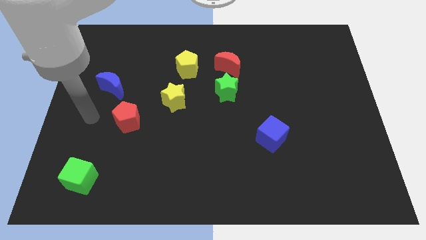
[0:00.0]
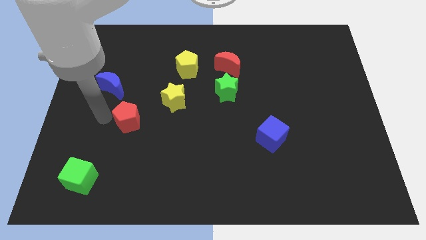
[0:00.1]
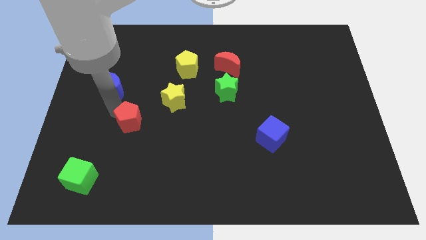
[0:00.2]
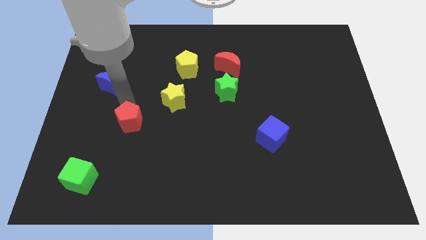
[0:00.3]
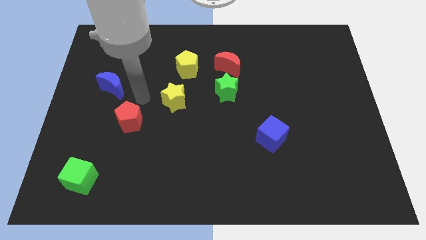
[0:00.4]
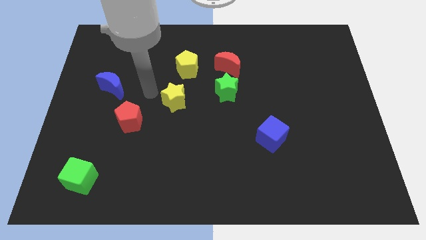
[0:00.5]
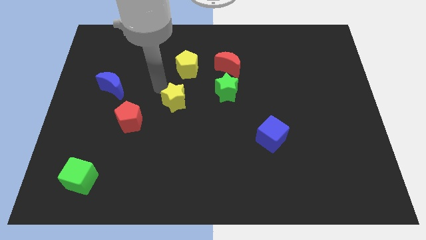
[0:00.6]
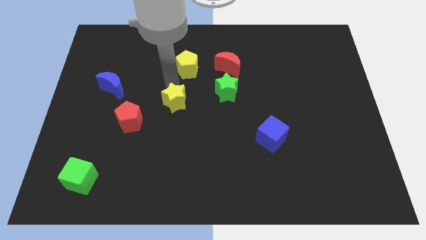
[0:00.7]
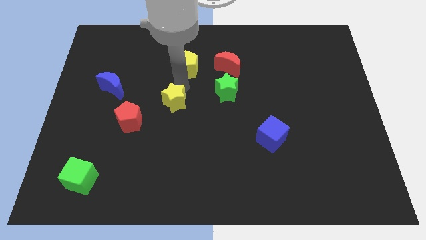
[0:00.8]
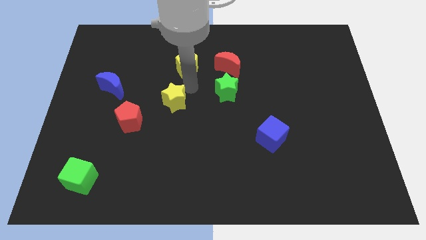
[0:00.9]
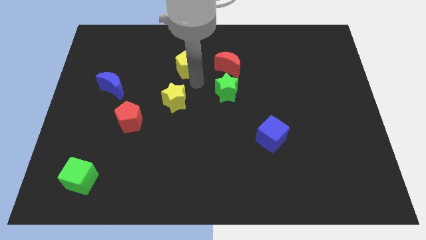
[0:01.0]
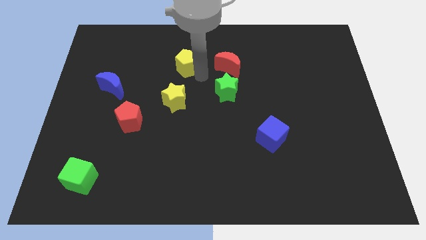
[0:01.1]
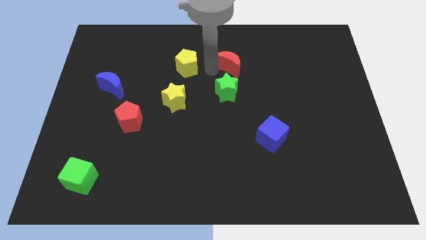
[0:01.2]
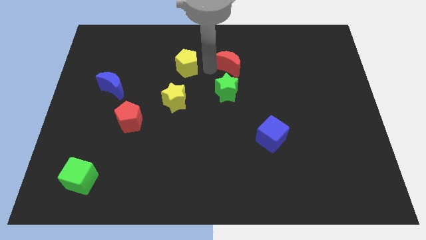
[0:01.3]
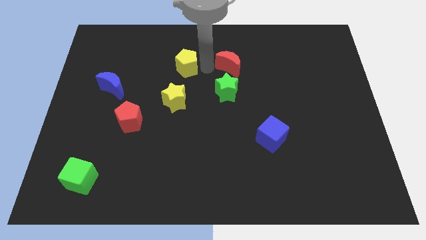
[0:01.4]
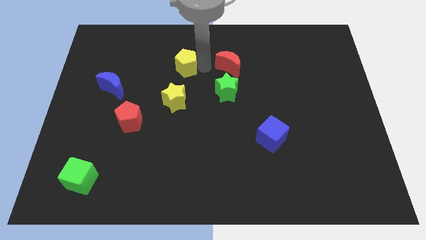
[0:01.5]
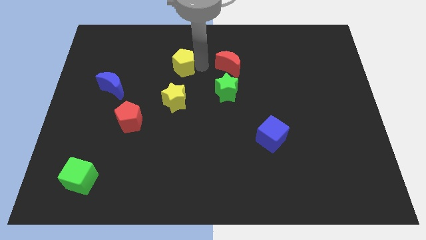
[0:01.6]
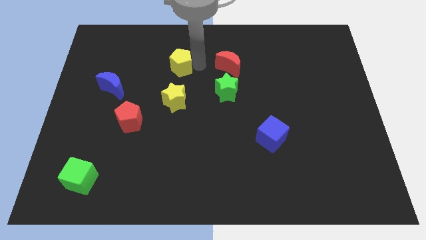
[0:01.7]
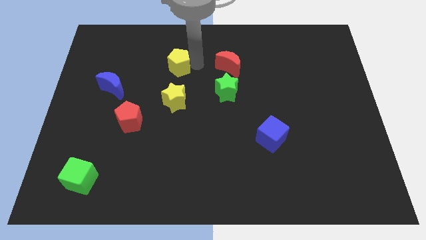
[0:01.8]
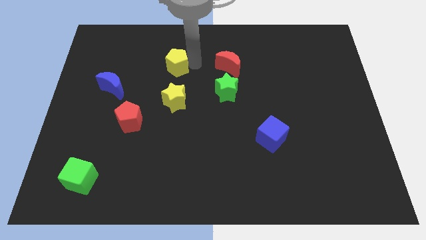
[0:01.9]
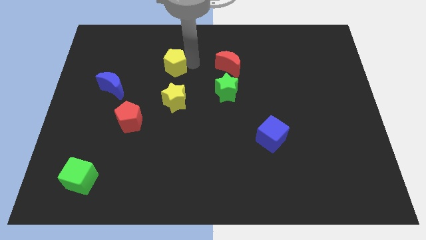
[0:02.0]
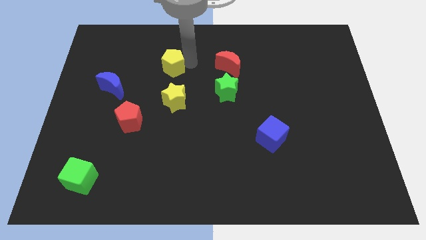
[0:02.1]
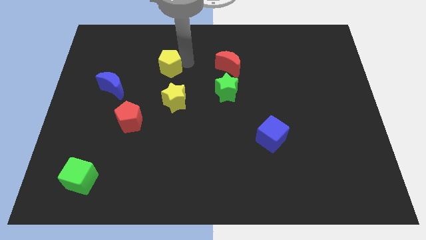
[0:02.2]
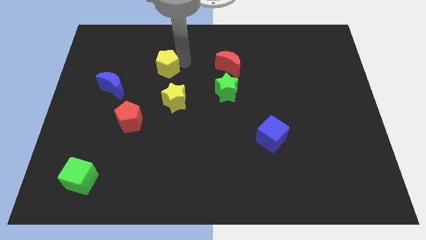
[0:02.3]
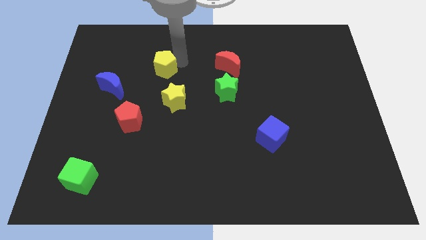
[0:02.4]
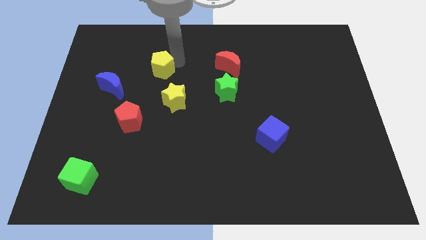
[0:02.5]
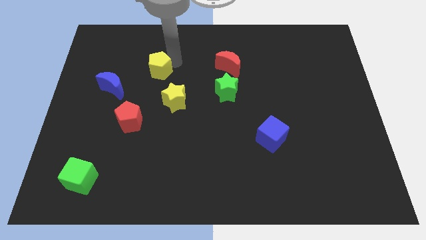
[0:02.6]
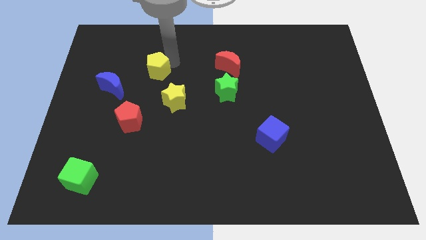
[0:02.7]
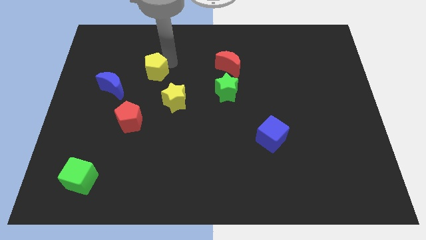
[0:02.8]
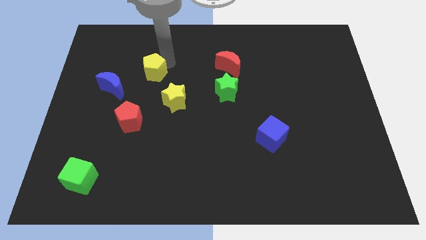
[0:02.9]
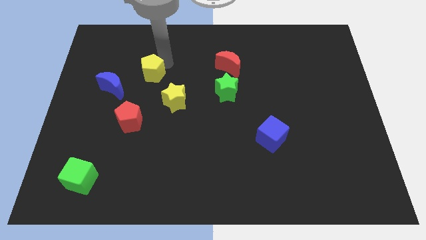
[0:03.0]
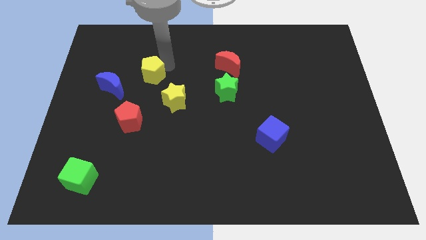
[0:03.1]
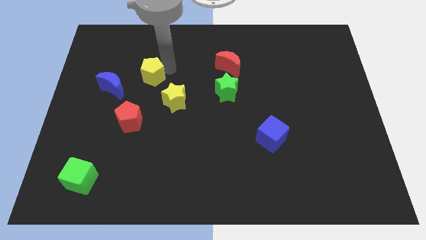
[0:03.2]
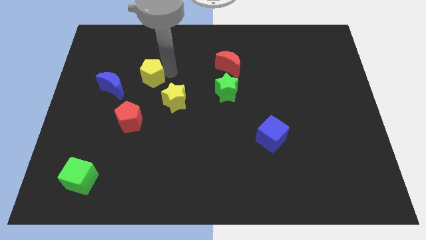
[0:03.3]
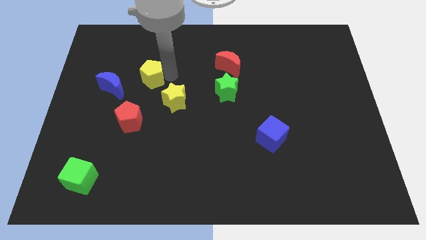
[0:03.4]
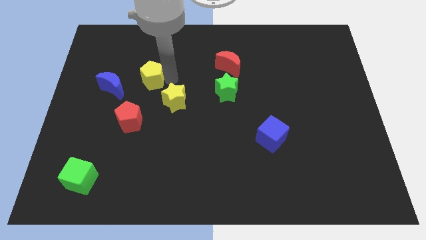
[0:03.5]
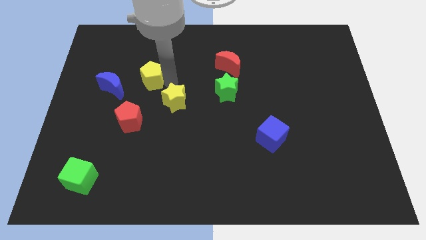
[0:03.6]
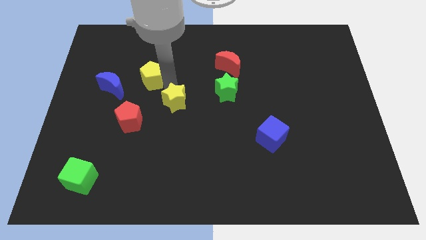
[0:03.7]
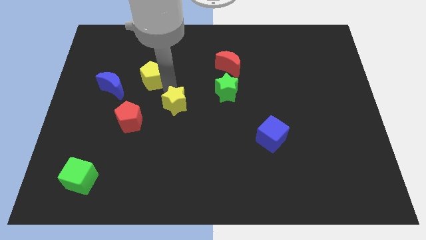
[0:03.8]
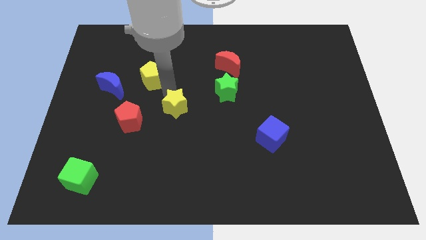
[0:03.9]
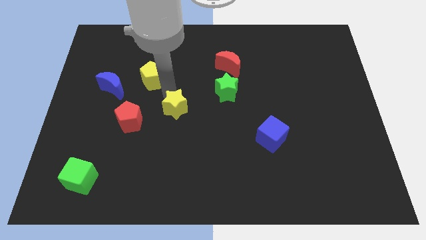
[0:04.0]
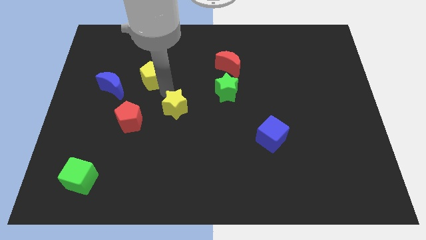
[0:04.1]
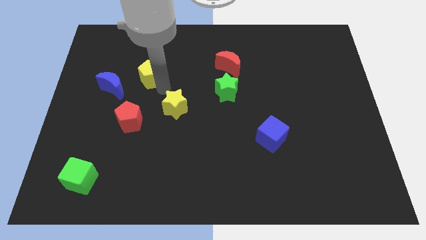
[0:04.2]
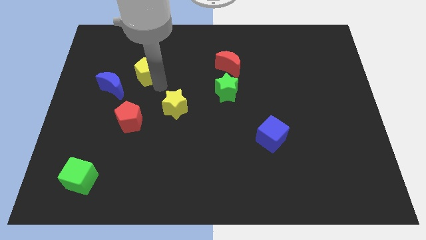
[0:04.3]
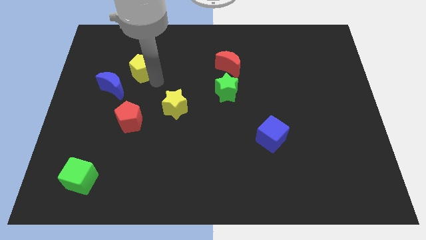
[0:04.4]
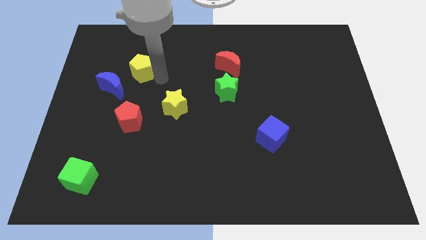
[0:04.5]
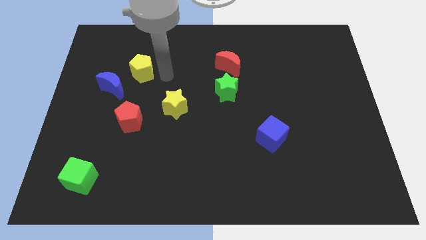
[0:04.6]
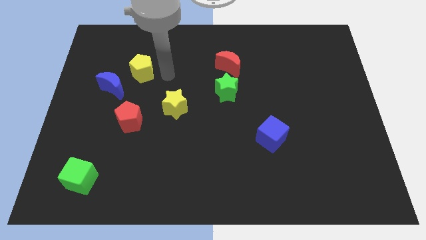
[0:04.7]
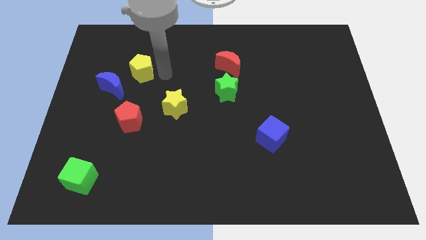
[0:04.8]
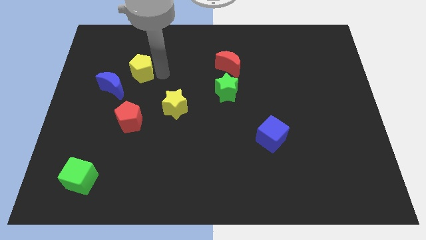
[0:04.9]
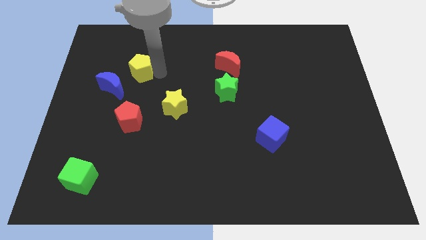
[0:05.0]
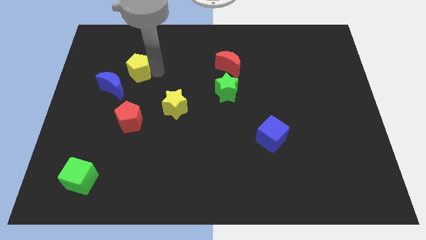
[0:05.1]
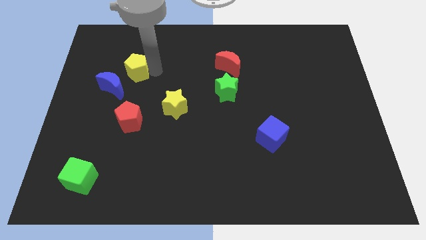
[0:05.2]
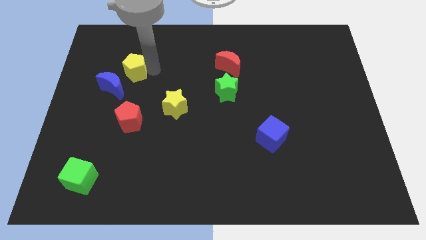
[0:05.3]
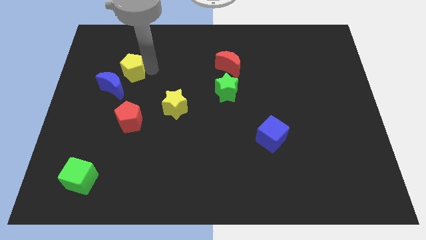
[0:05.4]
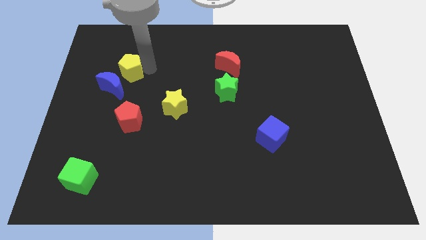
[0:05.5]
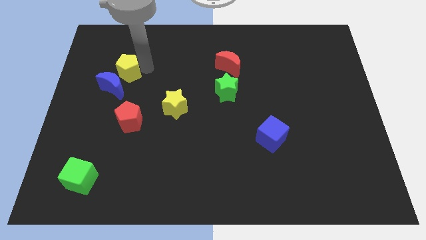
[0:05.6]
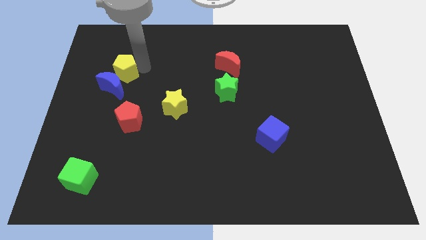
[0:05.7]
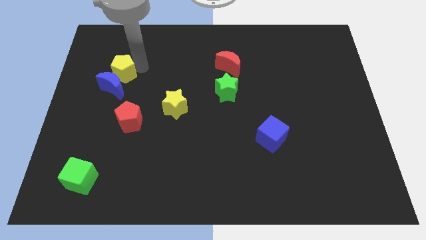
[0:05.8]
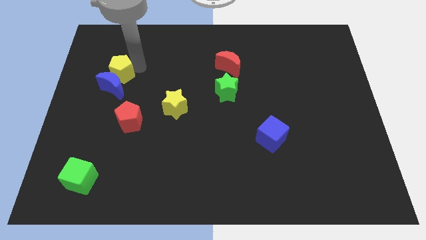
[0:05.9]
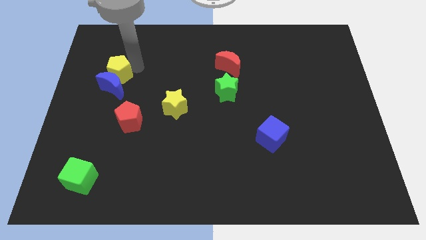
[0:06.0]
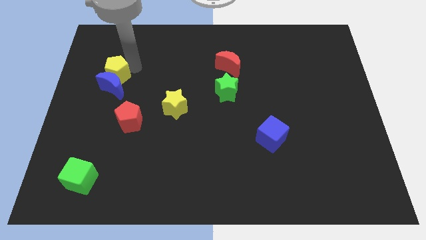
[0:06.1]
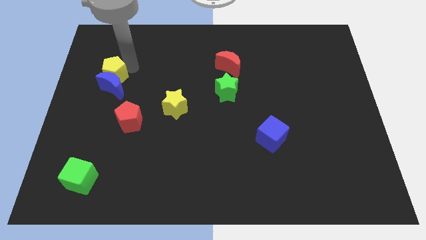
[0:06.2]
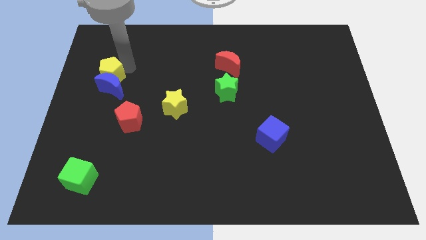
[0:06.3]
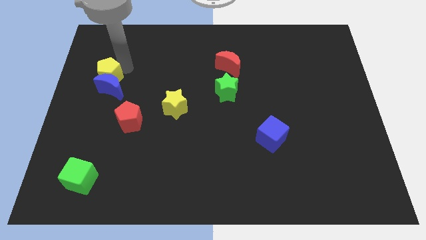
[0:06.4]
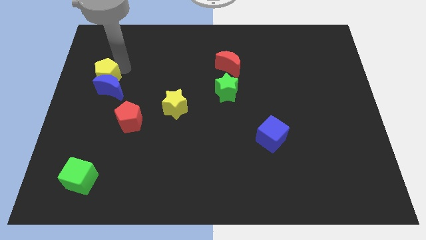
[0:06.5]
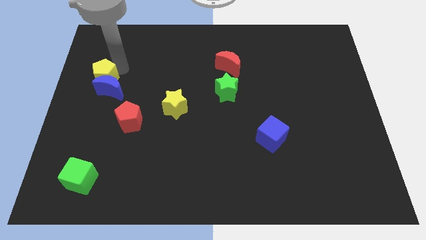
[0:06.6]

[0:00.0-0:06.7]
move the yellow pentagon to the left side of the board
